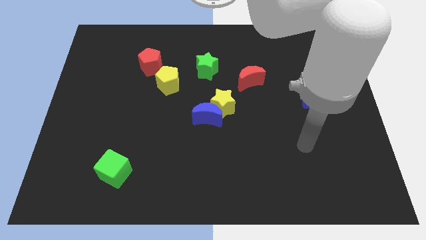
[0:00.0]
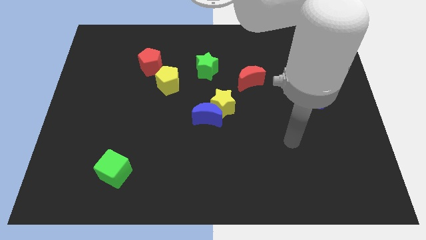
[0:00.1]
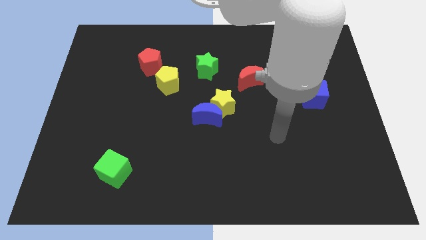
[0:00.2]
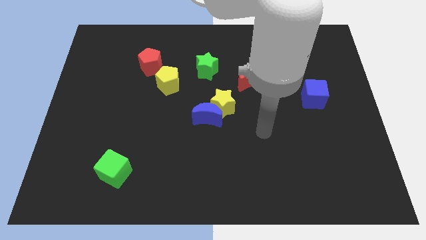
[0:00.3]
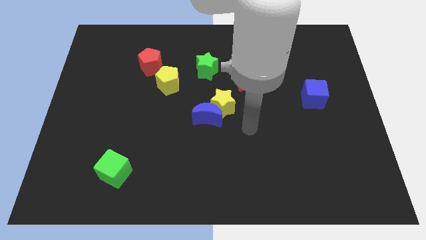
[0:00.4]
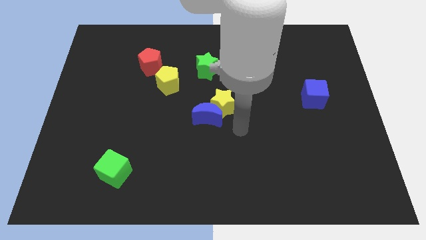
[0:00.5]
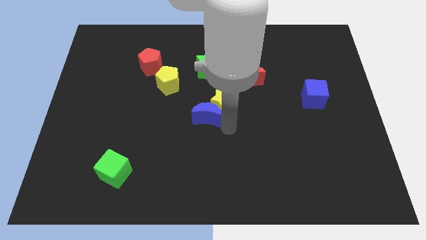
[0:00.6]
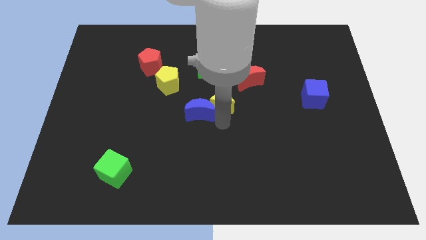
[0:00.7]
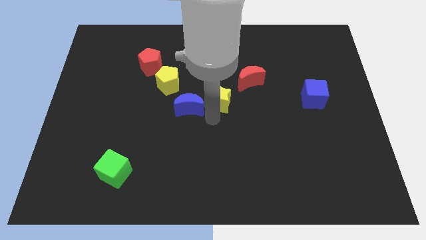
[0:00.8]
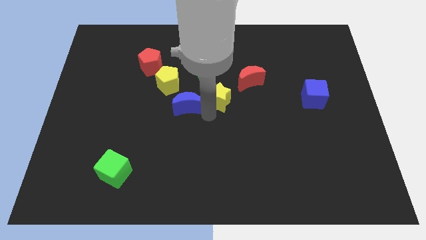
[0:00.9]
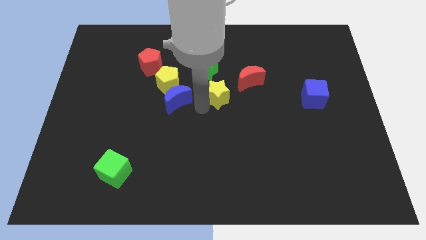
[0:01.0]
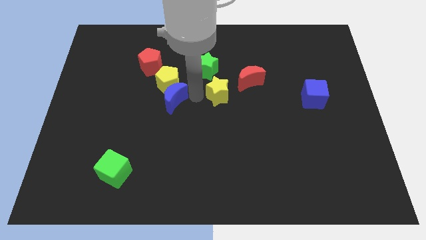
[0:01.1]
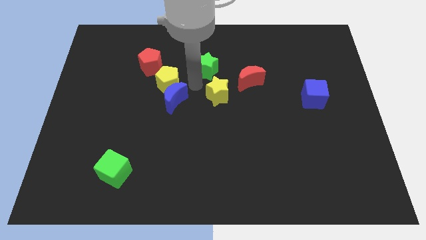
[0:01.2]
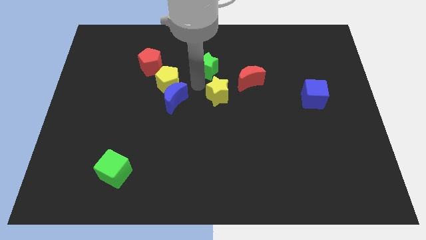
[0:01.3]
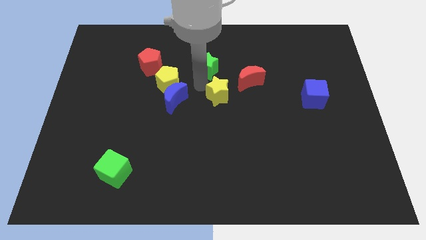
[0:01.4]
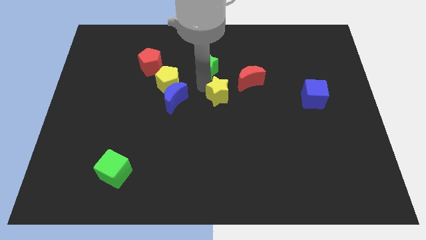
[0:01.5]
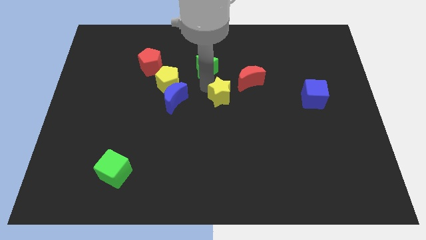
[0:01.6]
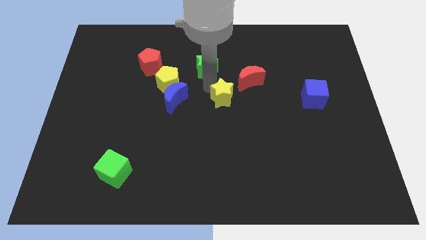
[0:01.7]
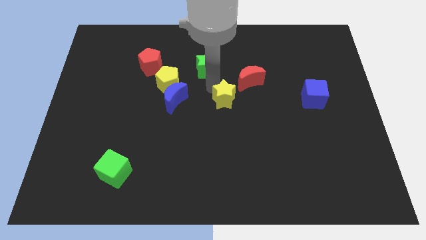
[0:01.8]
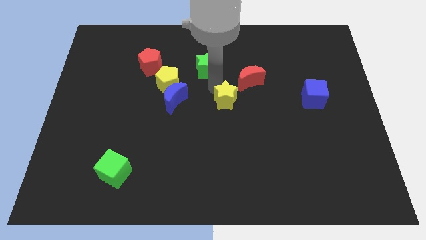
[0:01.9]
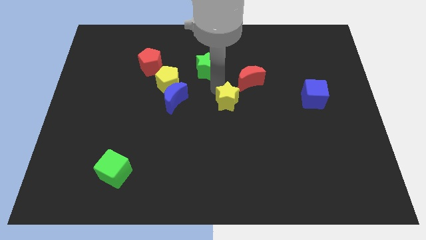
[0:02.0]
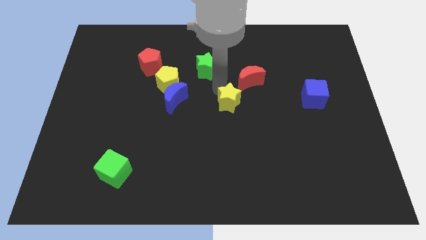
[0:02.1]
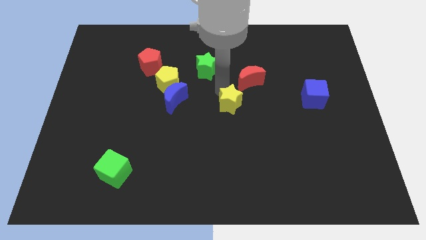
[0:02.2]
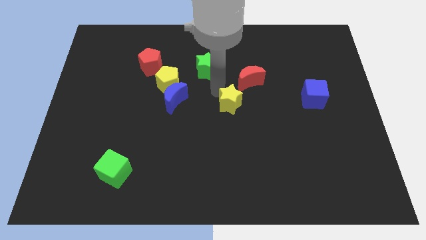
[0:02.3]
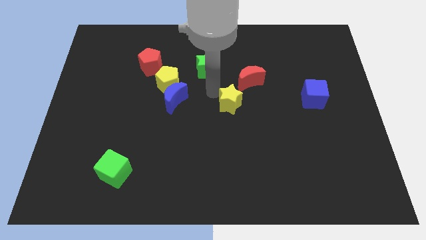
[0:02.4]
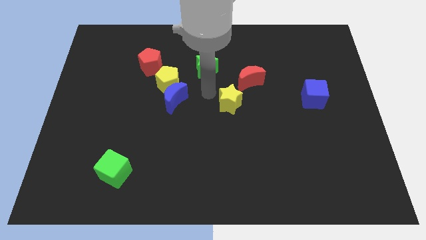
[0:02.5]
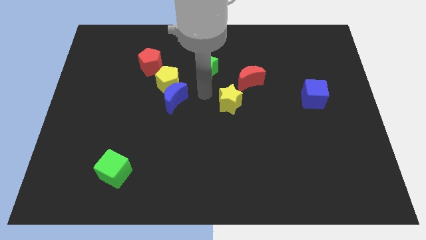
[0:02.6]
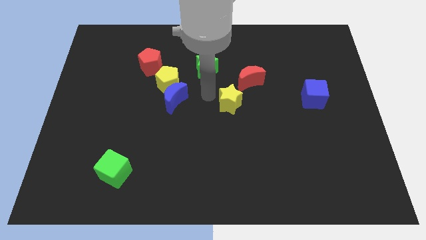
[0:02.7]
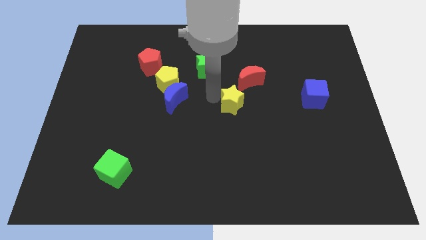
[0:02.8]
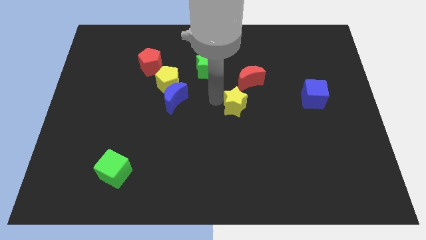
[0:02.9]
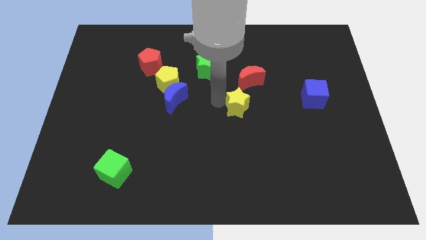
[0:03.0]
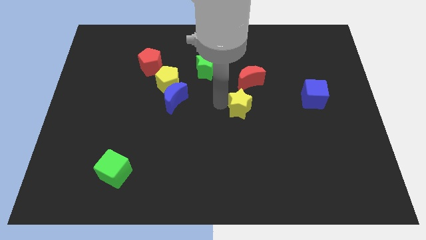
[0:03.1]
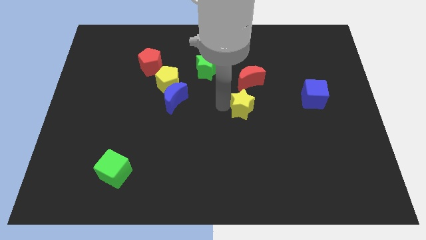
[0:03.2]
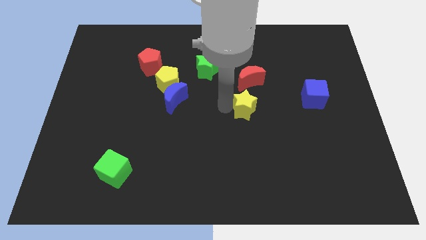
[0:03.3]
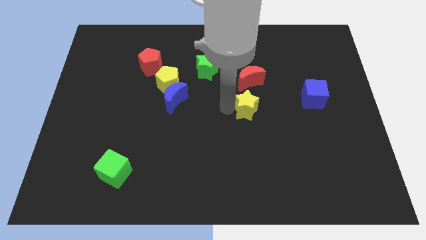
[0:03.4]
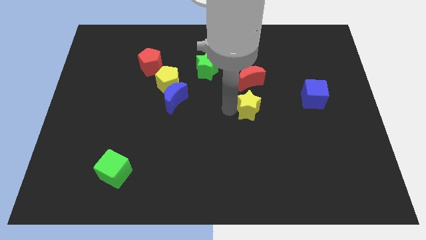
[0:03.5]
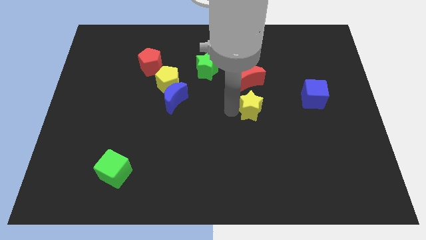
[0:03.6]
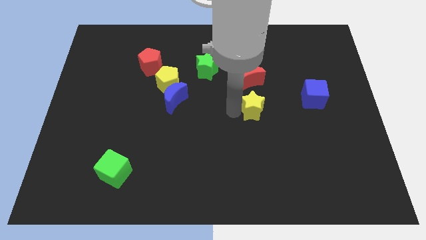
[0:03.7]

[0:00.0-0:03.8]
slide the yellow star to the right a little

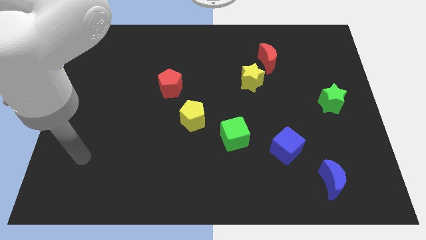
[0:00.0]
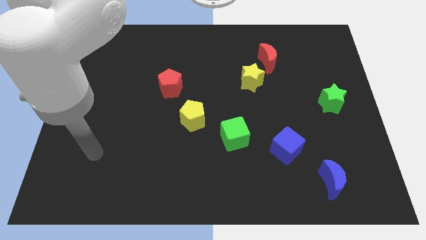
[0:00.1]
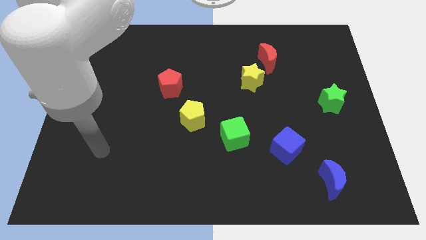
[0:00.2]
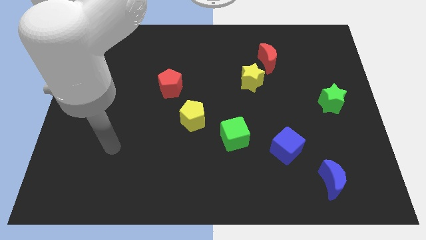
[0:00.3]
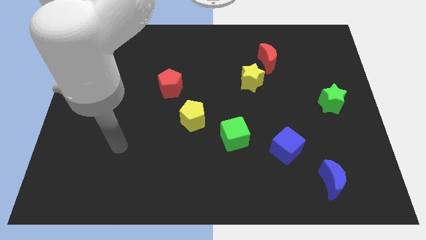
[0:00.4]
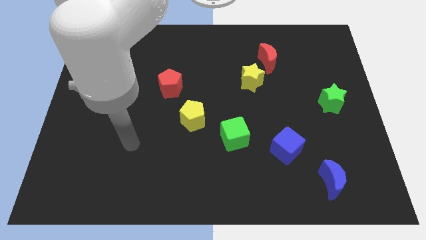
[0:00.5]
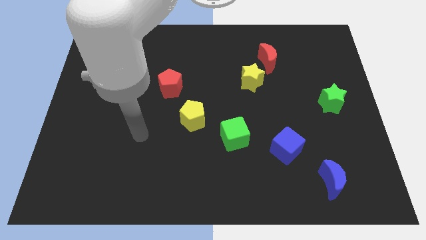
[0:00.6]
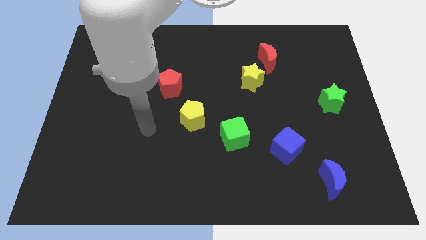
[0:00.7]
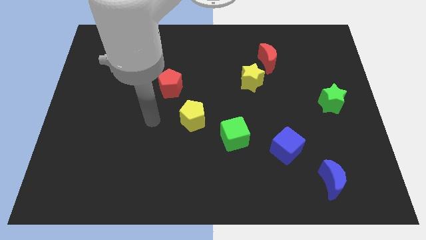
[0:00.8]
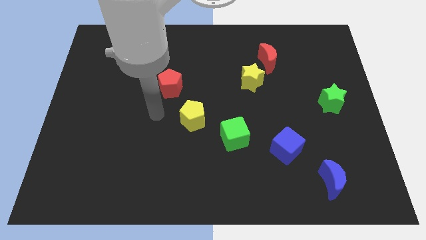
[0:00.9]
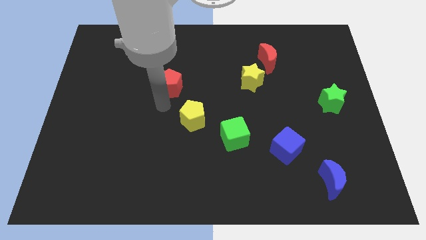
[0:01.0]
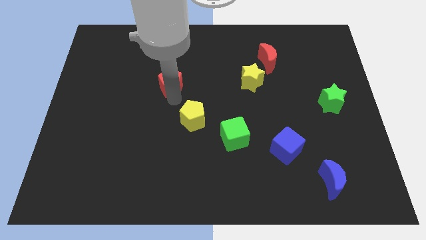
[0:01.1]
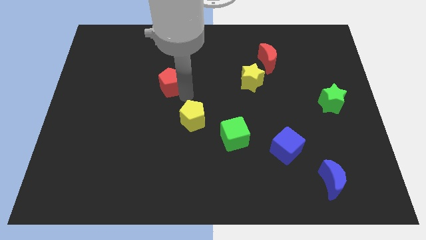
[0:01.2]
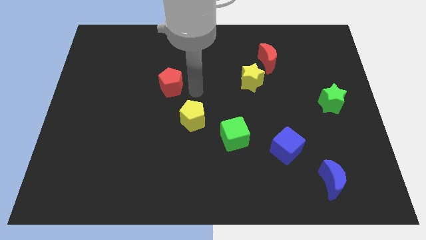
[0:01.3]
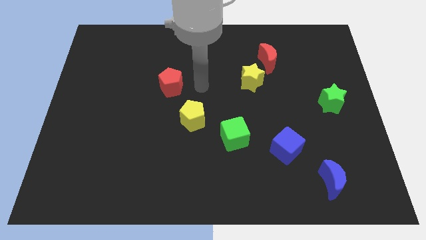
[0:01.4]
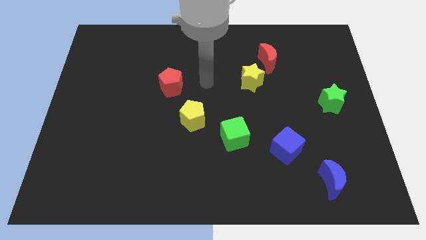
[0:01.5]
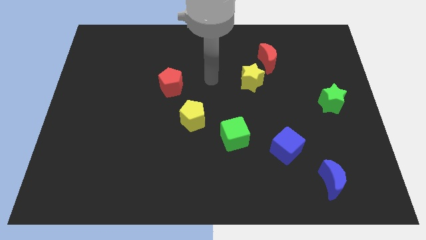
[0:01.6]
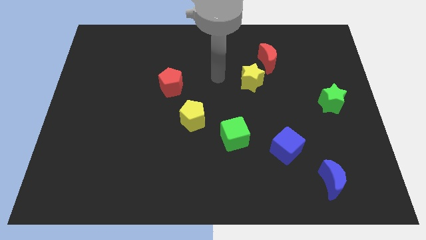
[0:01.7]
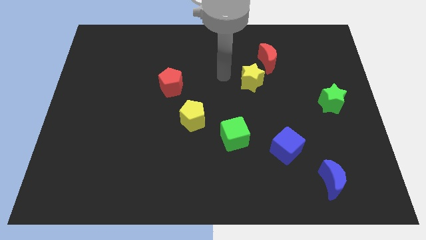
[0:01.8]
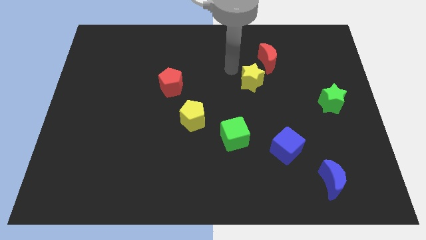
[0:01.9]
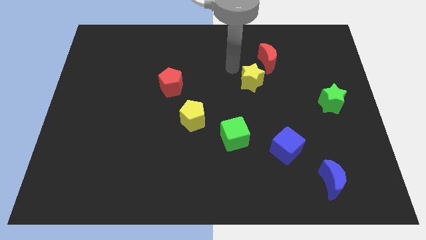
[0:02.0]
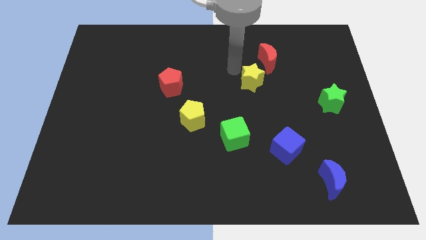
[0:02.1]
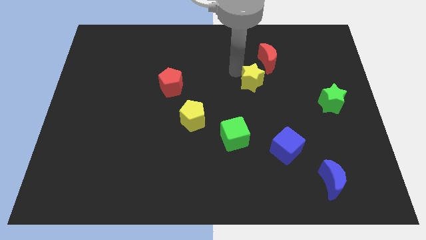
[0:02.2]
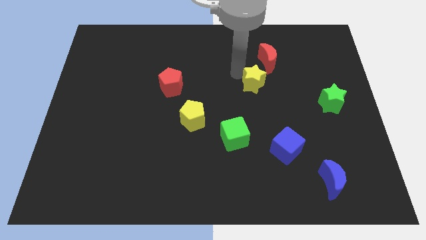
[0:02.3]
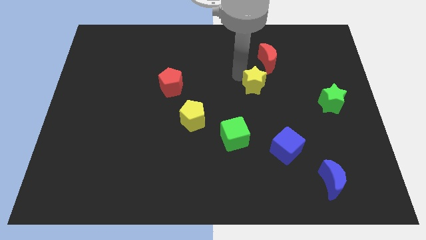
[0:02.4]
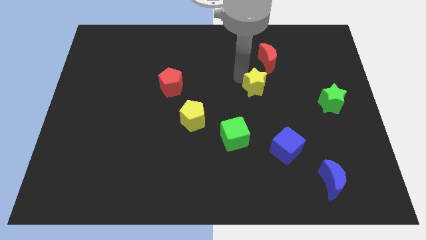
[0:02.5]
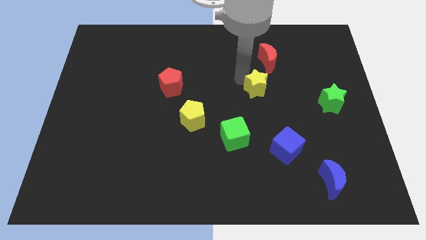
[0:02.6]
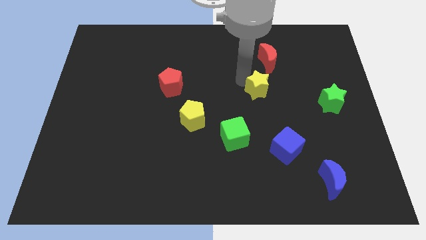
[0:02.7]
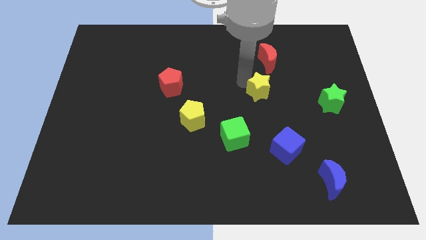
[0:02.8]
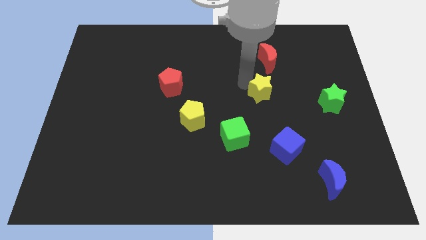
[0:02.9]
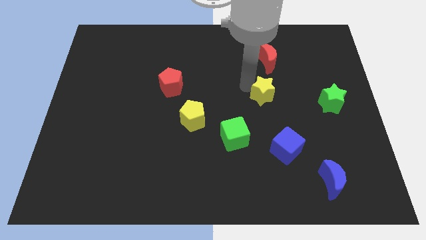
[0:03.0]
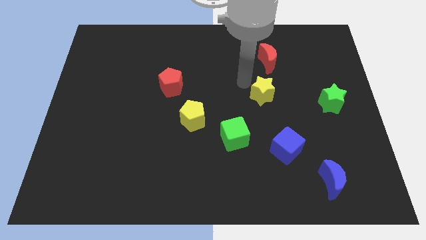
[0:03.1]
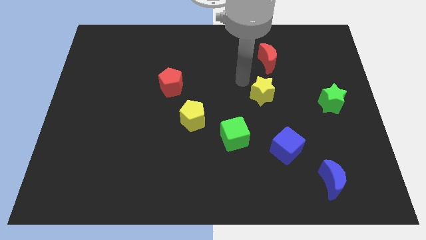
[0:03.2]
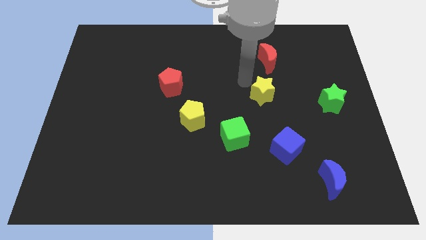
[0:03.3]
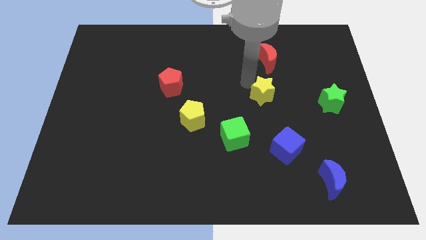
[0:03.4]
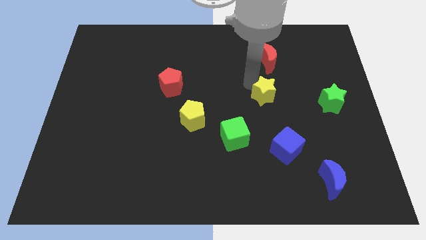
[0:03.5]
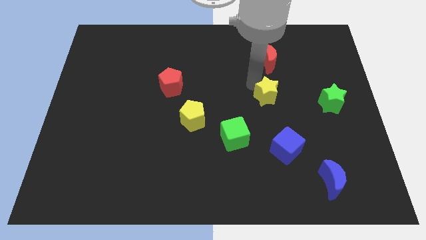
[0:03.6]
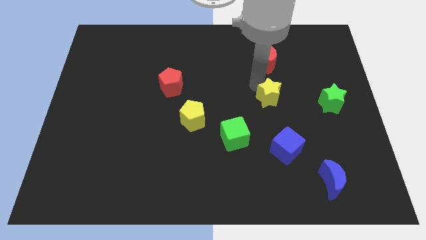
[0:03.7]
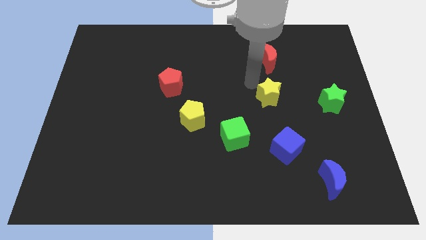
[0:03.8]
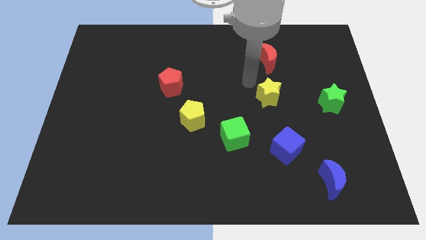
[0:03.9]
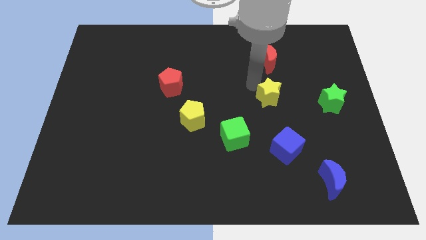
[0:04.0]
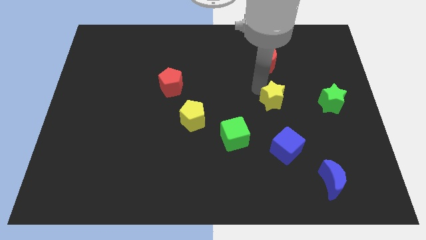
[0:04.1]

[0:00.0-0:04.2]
push the yellow star somewhat down and to the right diagonally
